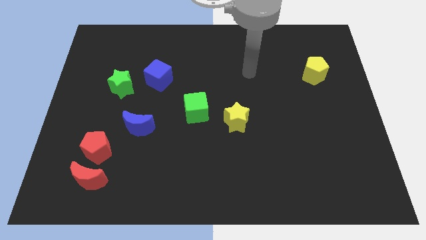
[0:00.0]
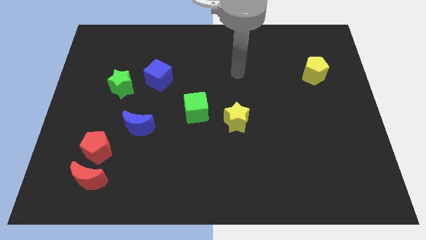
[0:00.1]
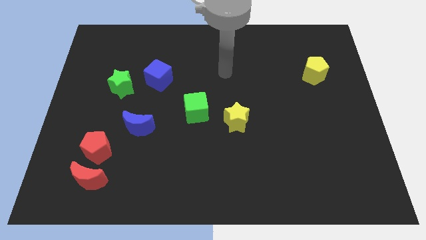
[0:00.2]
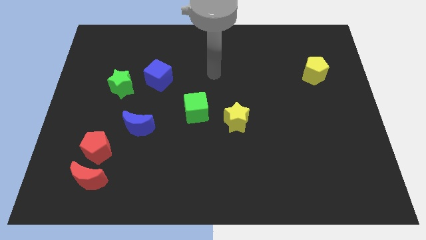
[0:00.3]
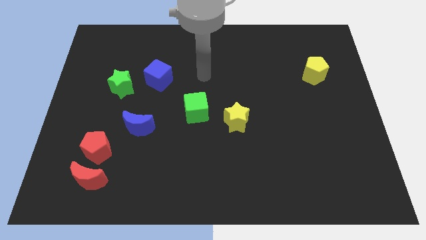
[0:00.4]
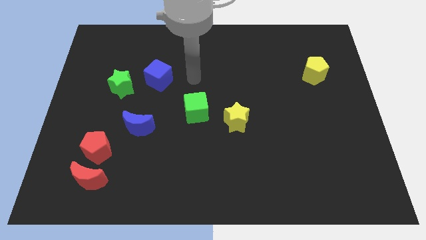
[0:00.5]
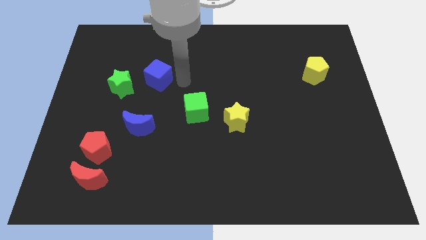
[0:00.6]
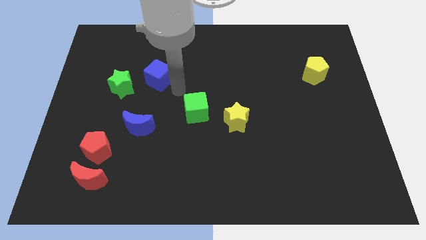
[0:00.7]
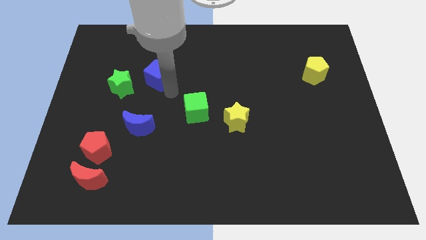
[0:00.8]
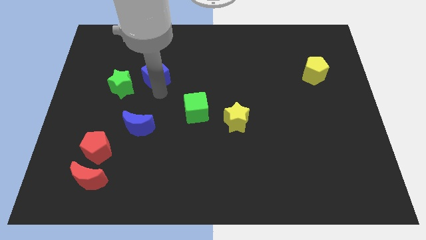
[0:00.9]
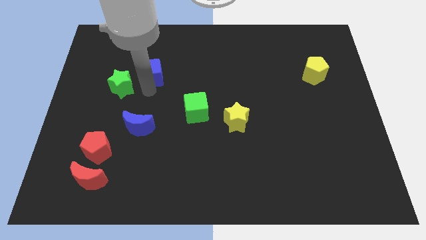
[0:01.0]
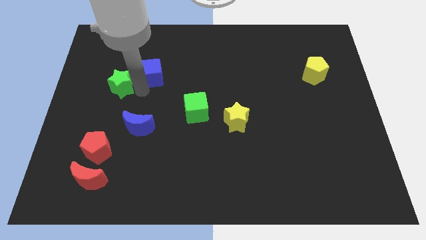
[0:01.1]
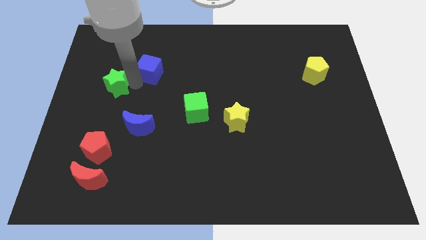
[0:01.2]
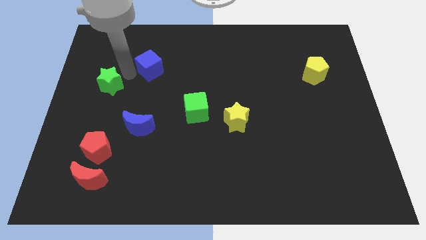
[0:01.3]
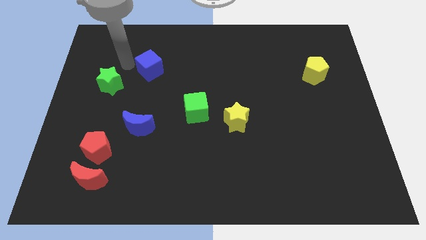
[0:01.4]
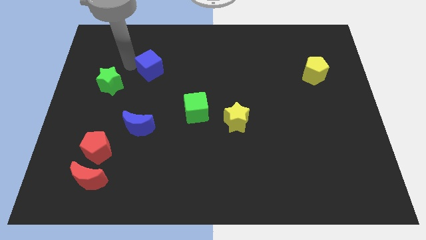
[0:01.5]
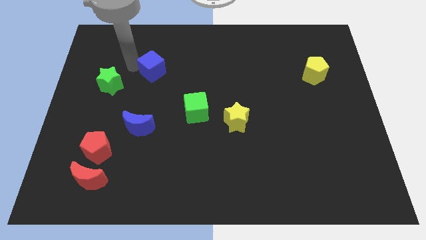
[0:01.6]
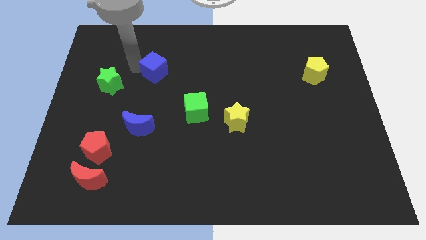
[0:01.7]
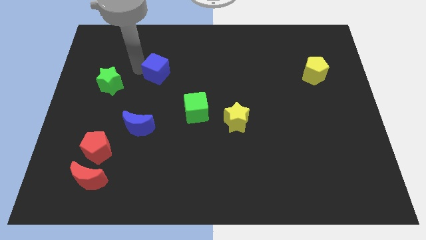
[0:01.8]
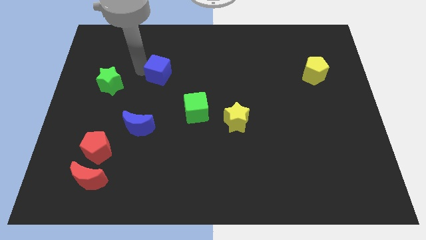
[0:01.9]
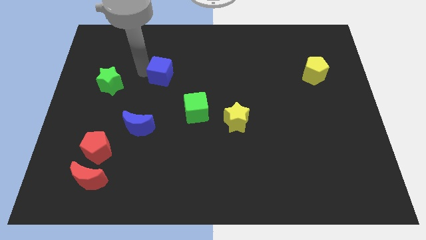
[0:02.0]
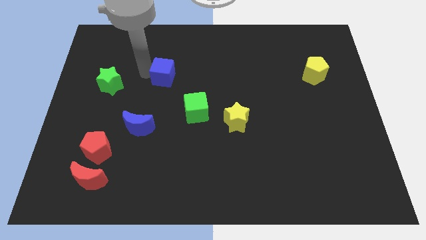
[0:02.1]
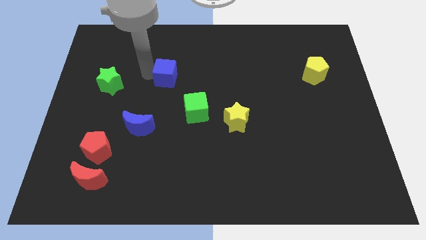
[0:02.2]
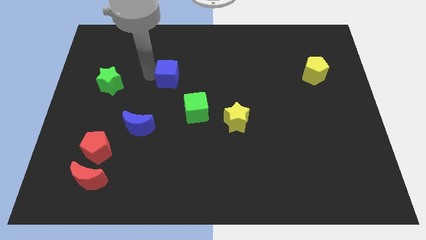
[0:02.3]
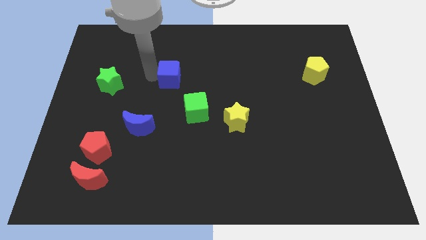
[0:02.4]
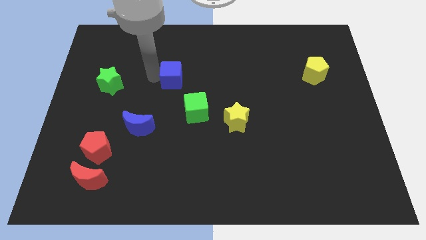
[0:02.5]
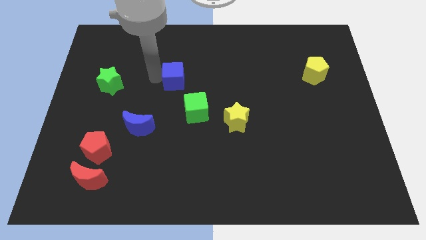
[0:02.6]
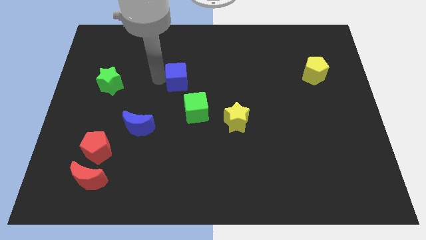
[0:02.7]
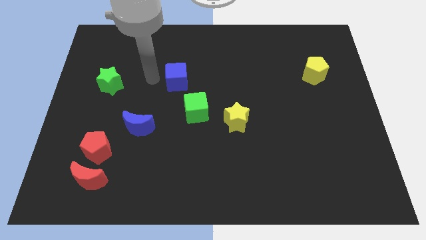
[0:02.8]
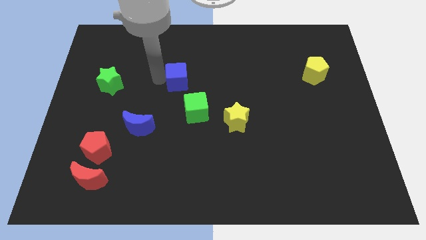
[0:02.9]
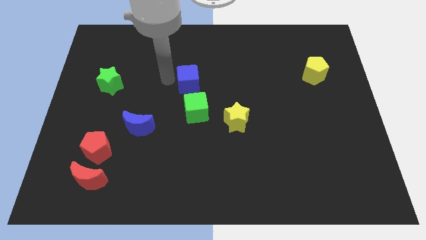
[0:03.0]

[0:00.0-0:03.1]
slide the blue cube a bit right

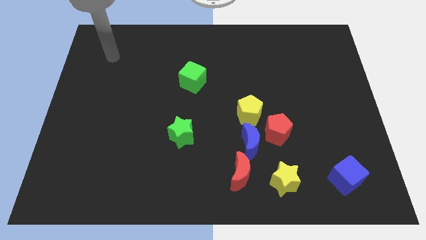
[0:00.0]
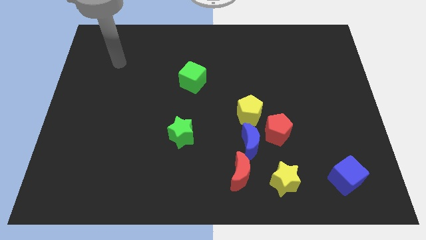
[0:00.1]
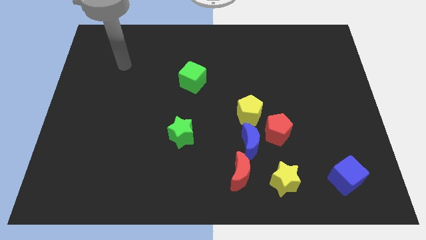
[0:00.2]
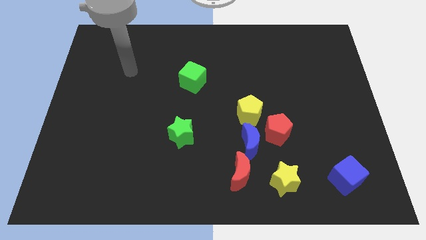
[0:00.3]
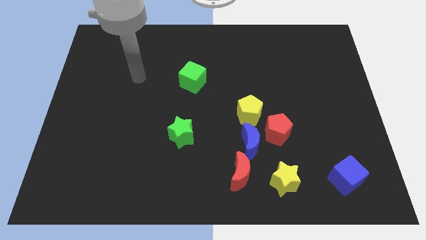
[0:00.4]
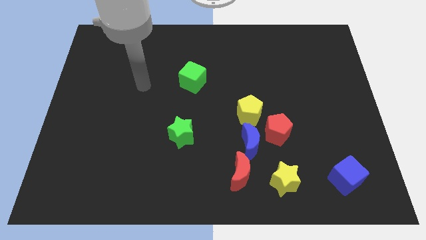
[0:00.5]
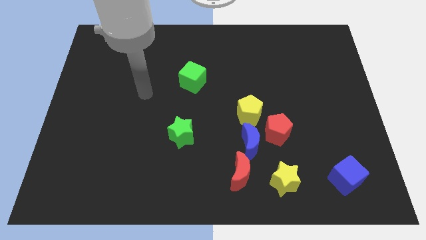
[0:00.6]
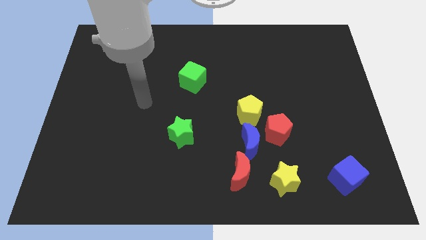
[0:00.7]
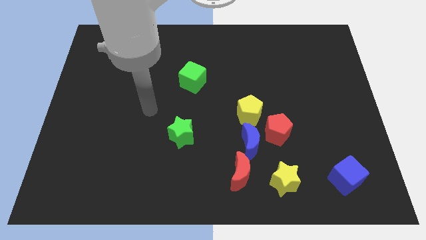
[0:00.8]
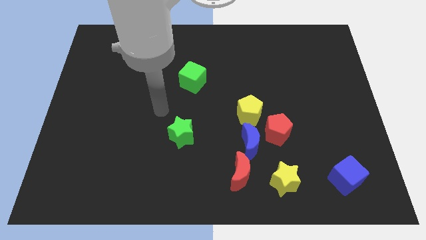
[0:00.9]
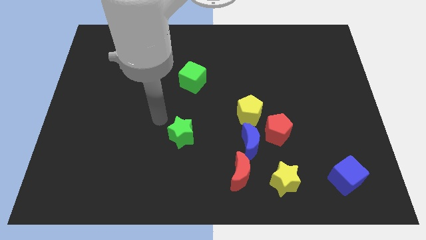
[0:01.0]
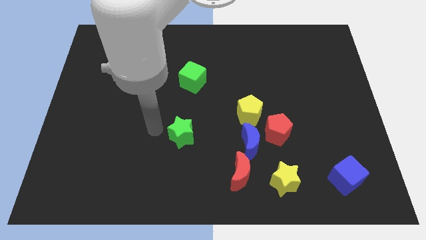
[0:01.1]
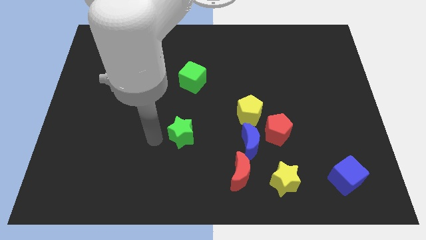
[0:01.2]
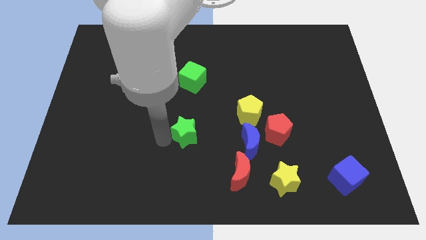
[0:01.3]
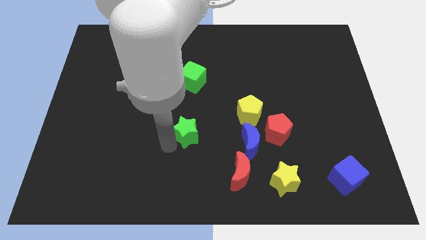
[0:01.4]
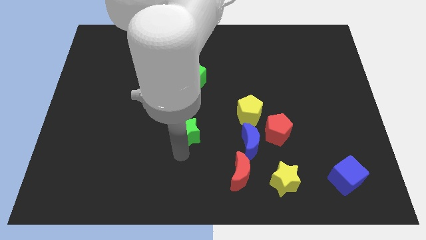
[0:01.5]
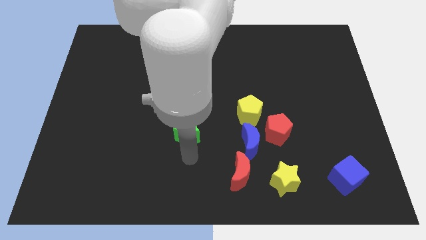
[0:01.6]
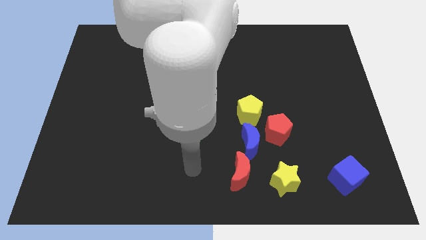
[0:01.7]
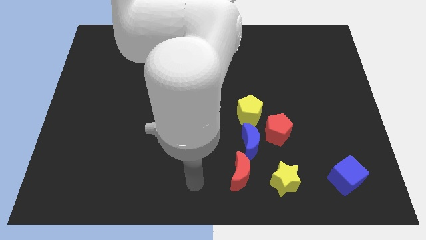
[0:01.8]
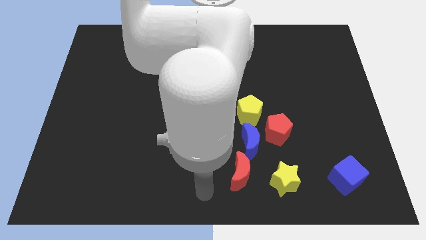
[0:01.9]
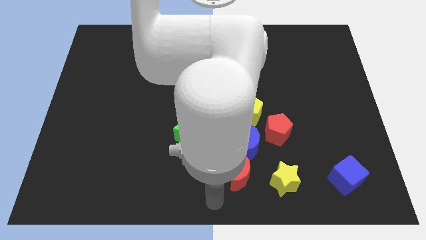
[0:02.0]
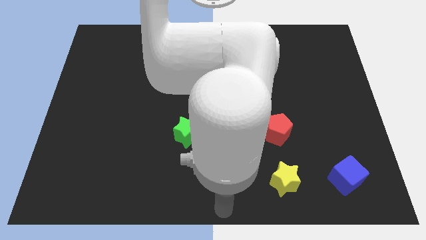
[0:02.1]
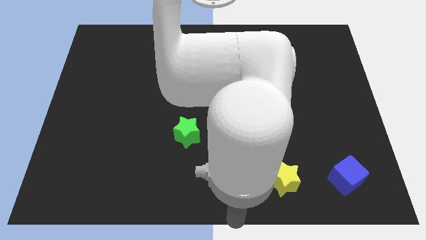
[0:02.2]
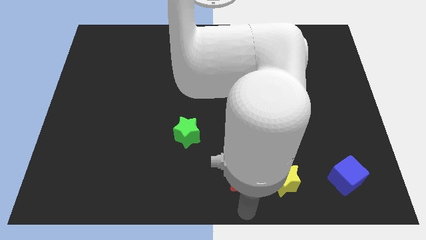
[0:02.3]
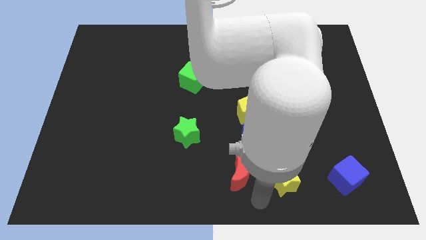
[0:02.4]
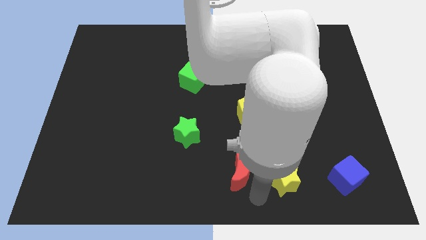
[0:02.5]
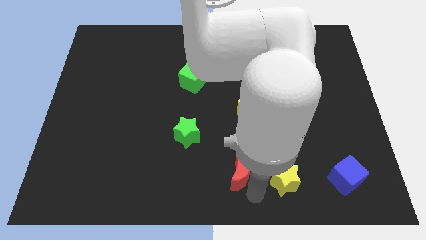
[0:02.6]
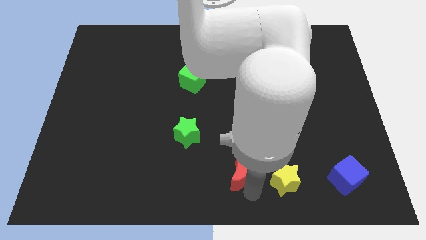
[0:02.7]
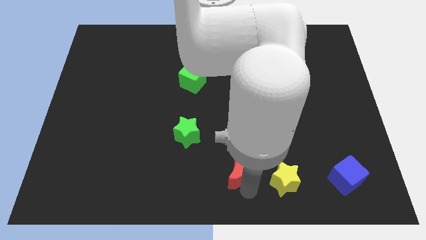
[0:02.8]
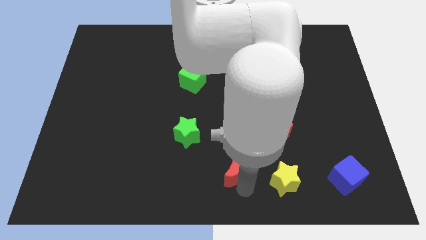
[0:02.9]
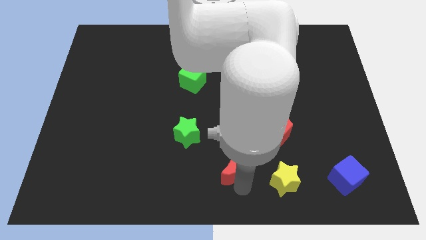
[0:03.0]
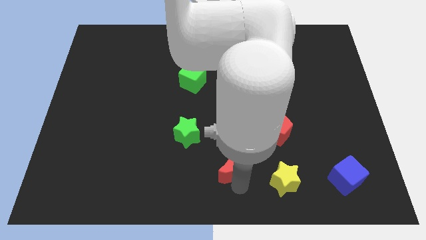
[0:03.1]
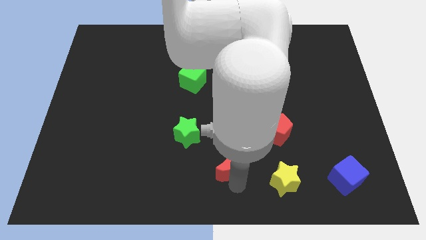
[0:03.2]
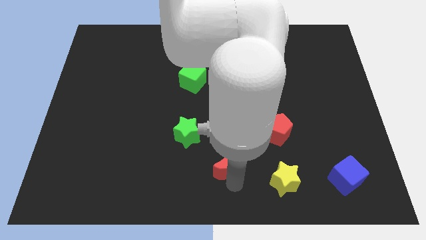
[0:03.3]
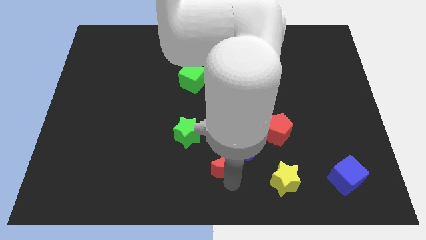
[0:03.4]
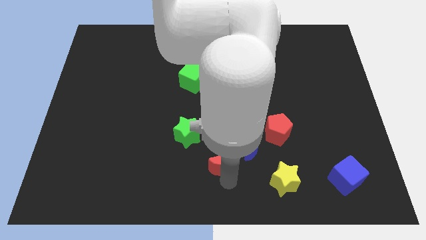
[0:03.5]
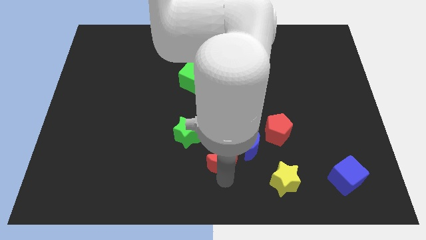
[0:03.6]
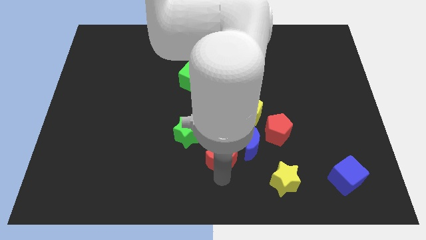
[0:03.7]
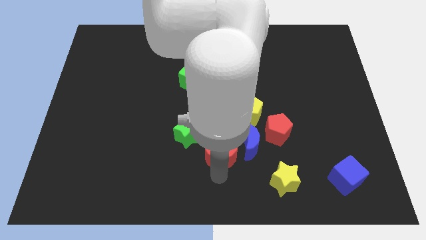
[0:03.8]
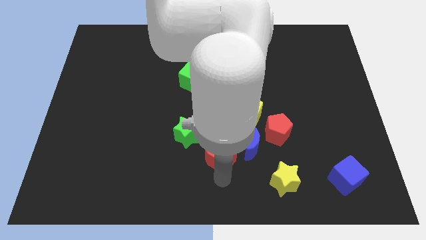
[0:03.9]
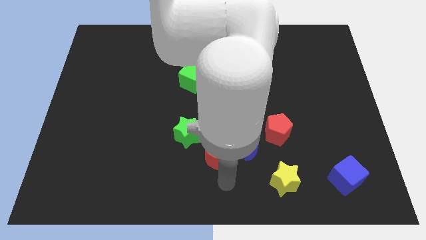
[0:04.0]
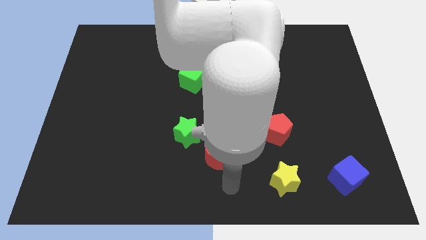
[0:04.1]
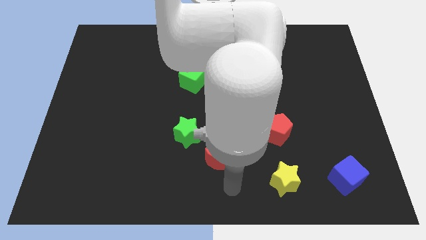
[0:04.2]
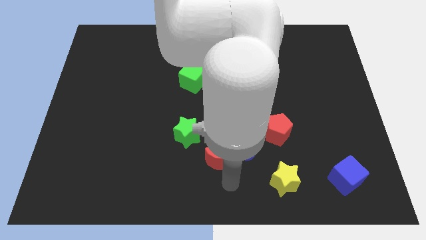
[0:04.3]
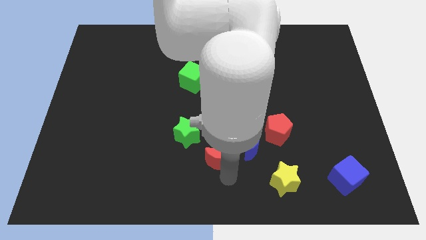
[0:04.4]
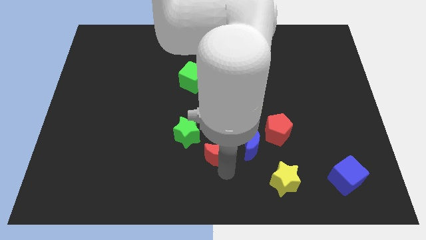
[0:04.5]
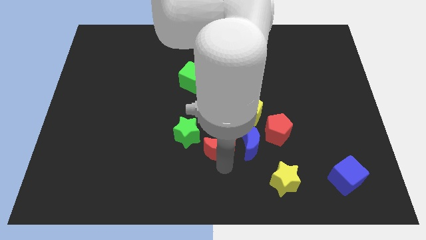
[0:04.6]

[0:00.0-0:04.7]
move the red moon up and left diagonally somewhat
